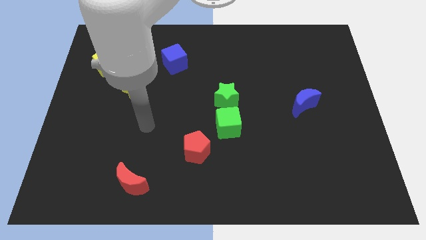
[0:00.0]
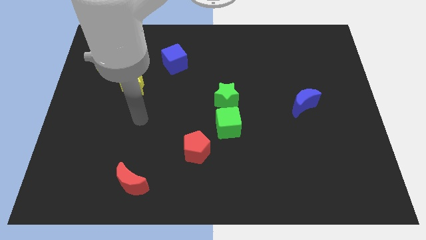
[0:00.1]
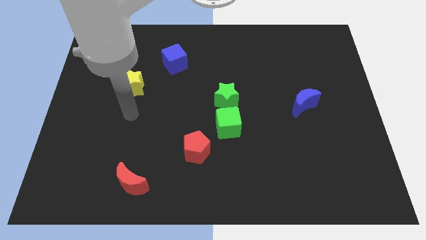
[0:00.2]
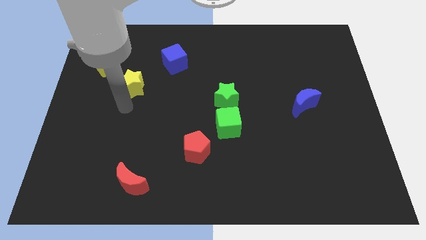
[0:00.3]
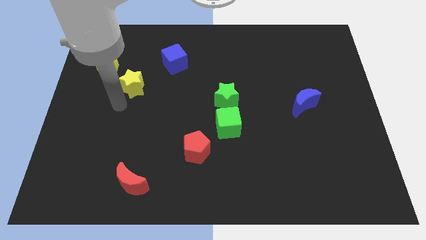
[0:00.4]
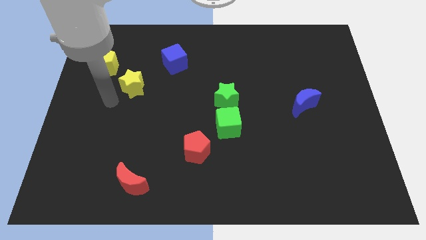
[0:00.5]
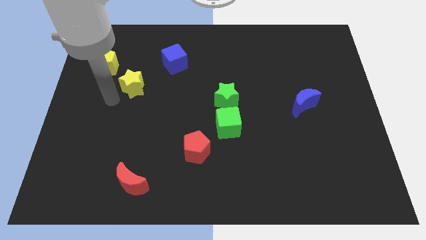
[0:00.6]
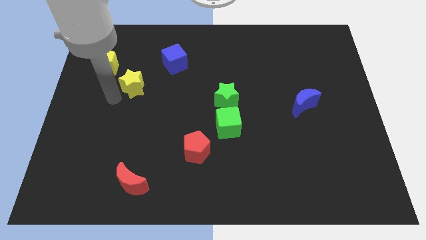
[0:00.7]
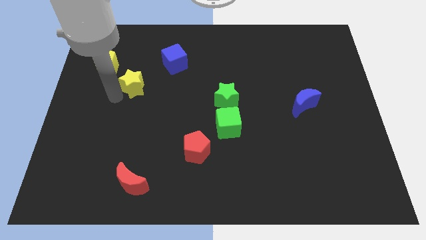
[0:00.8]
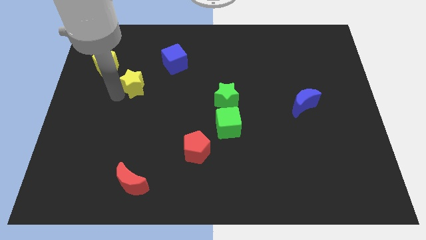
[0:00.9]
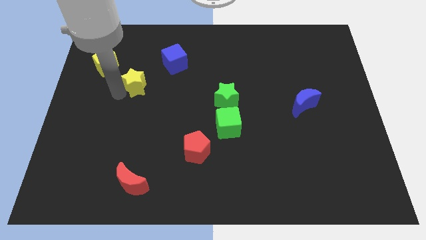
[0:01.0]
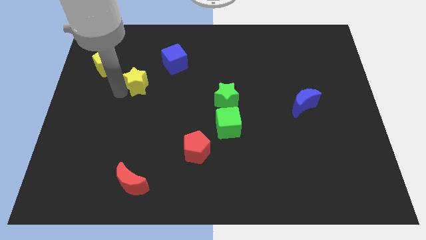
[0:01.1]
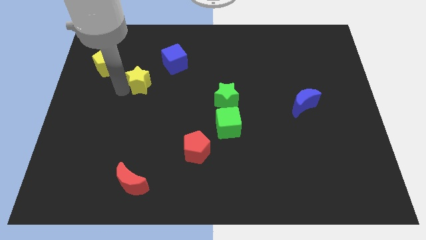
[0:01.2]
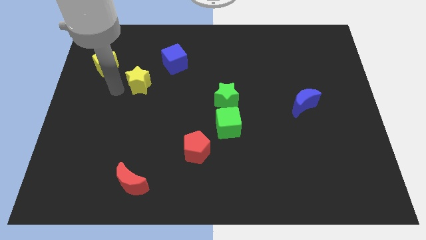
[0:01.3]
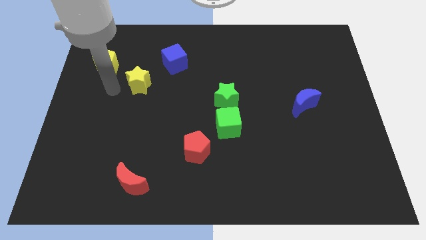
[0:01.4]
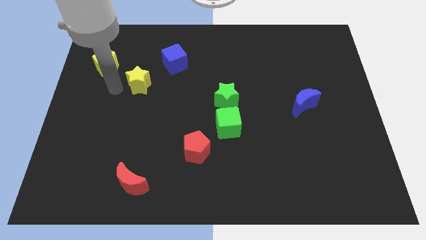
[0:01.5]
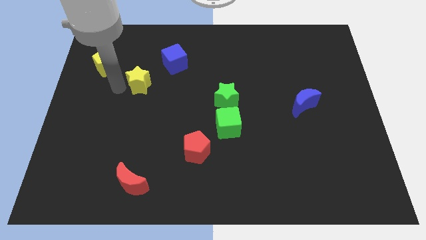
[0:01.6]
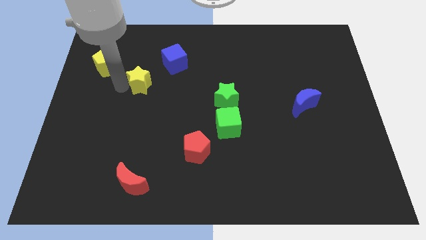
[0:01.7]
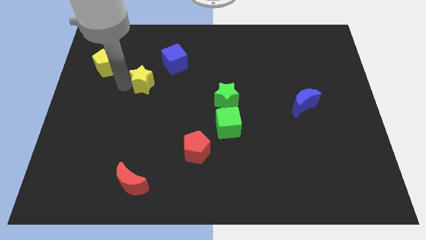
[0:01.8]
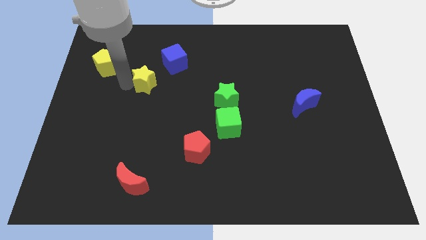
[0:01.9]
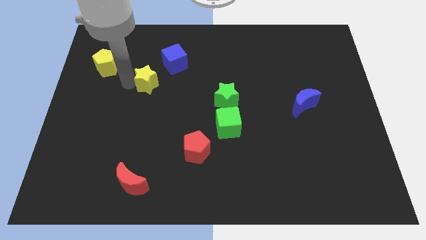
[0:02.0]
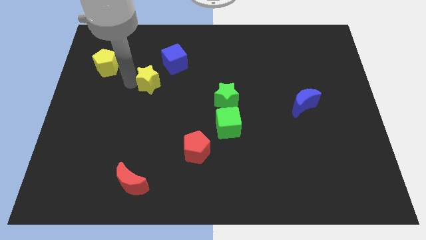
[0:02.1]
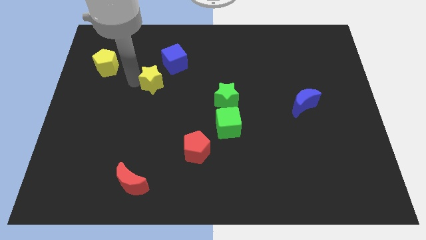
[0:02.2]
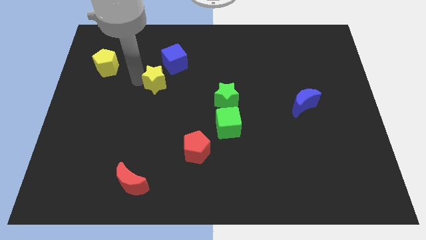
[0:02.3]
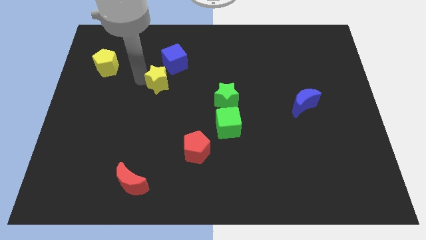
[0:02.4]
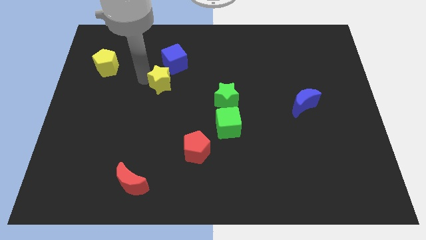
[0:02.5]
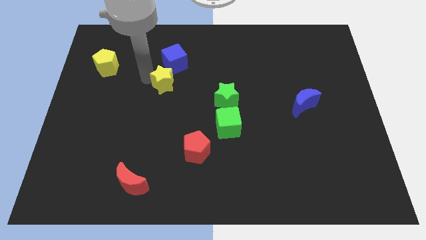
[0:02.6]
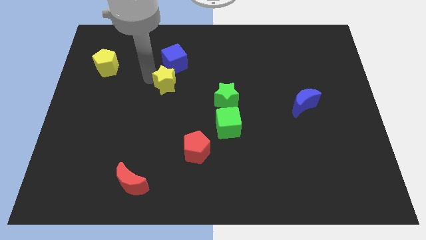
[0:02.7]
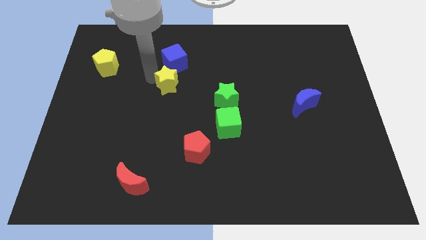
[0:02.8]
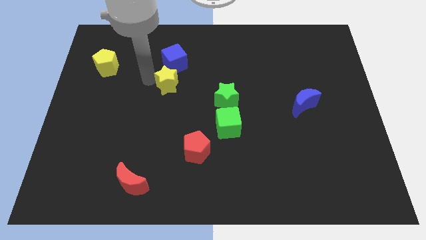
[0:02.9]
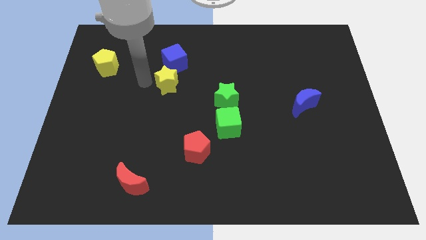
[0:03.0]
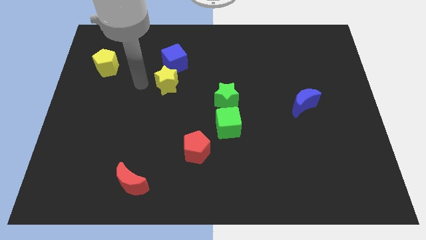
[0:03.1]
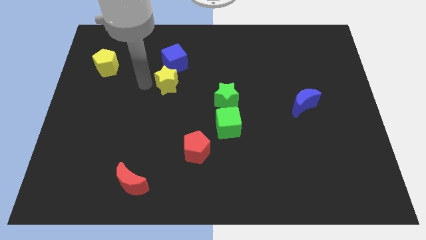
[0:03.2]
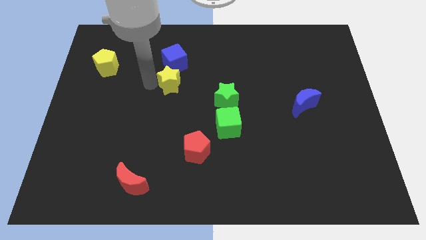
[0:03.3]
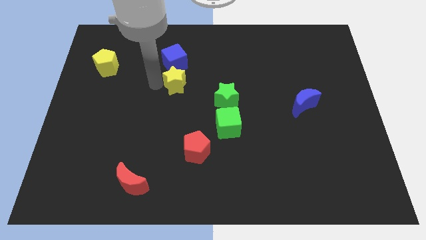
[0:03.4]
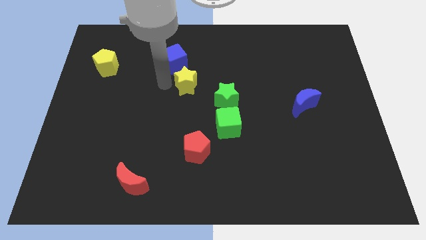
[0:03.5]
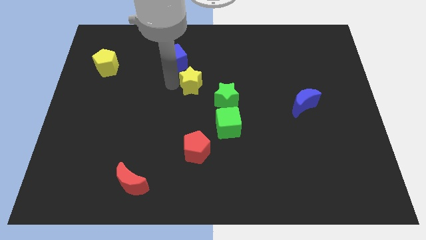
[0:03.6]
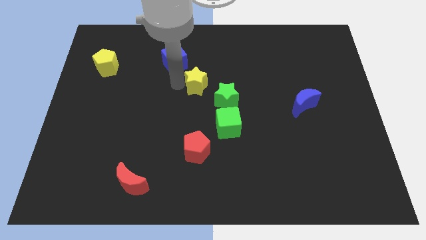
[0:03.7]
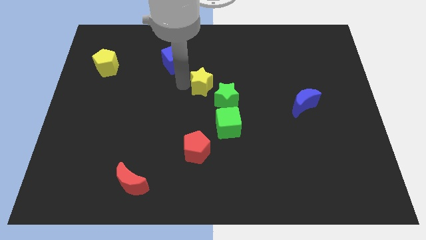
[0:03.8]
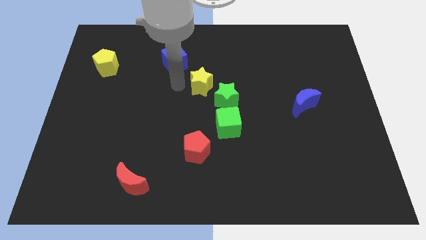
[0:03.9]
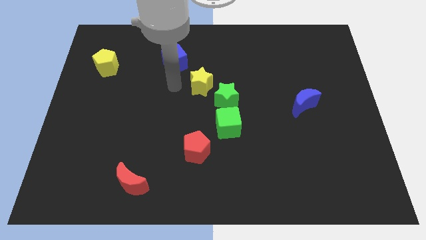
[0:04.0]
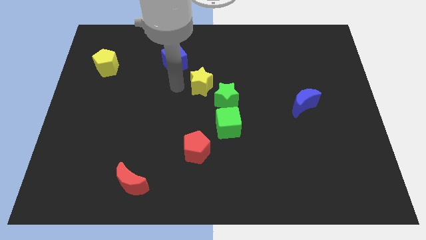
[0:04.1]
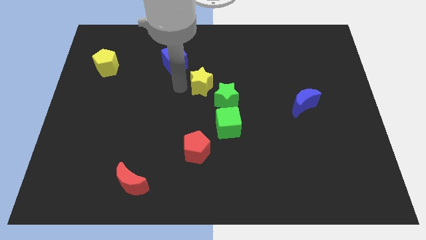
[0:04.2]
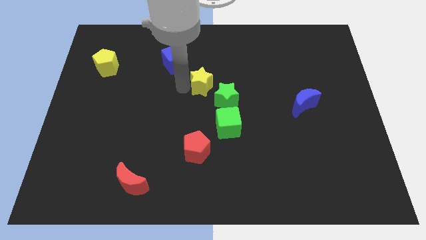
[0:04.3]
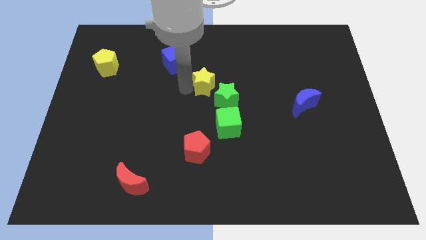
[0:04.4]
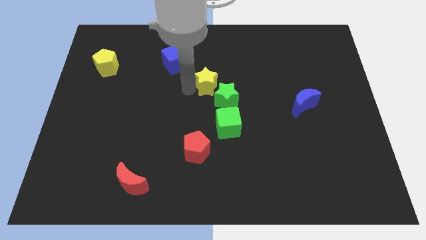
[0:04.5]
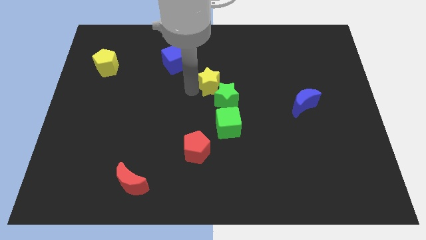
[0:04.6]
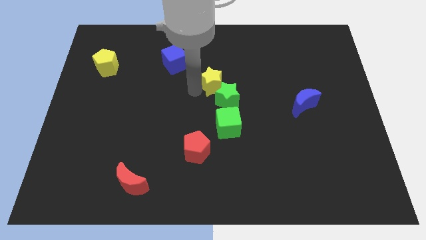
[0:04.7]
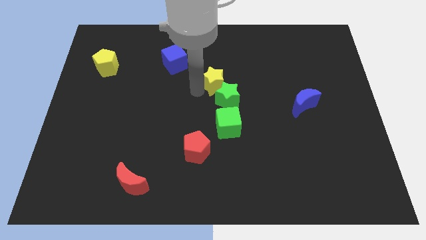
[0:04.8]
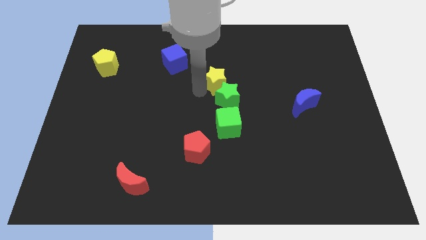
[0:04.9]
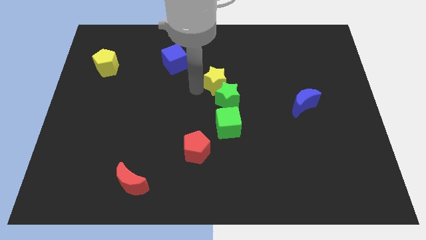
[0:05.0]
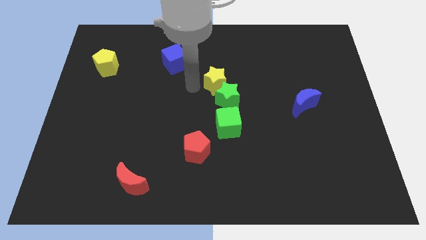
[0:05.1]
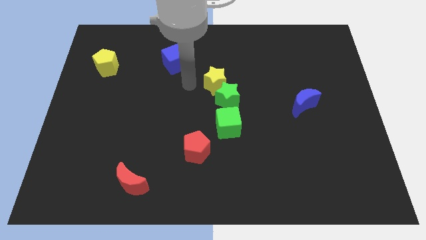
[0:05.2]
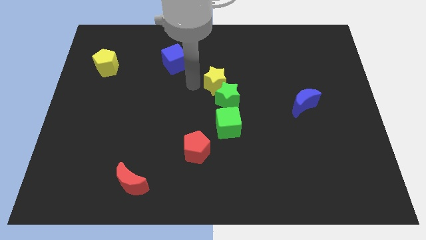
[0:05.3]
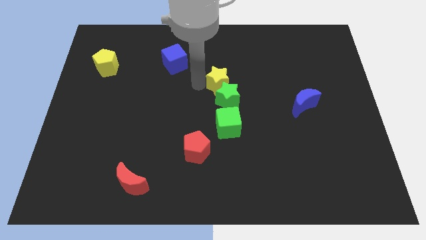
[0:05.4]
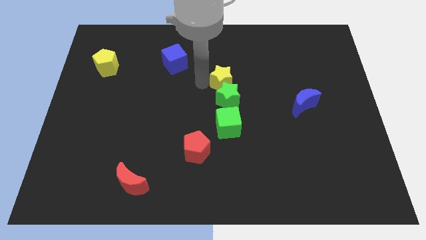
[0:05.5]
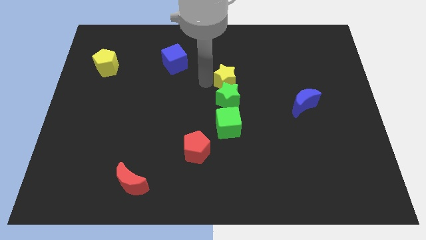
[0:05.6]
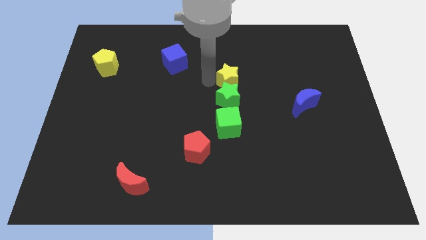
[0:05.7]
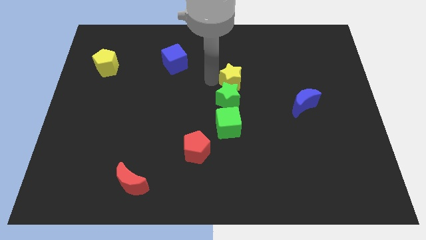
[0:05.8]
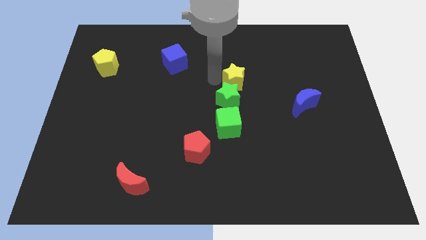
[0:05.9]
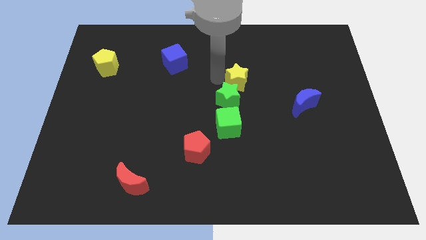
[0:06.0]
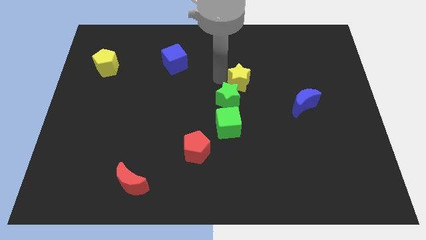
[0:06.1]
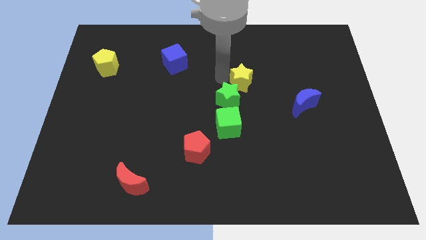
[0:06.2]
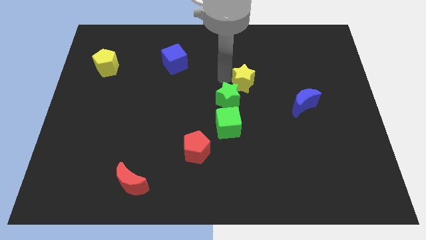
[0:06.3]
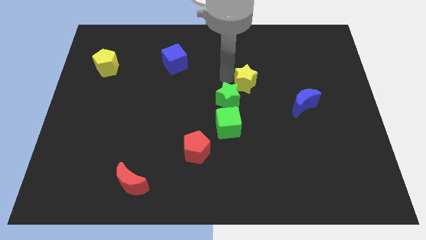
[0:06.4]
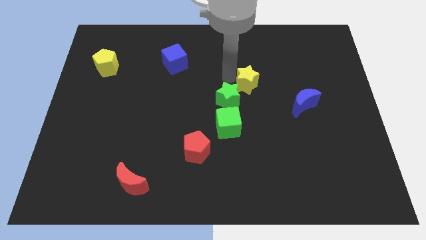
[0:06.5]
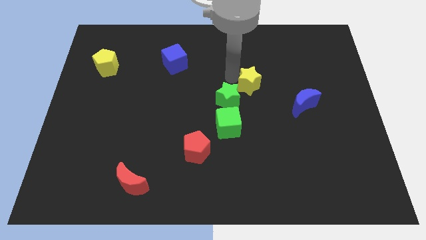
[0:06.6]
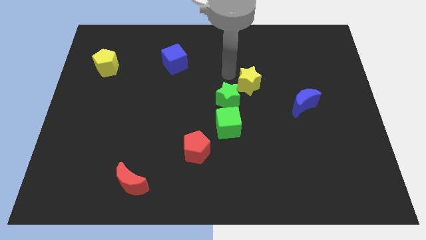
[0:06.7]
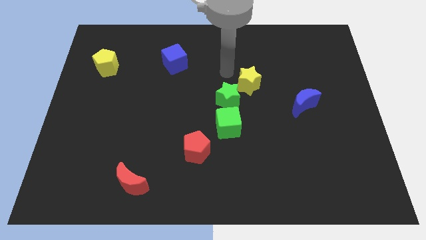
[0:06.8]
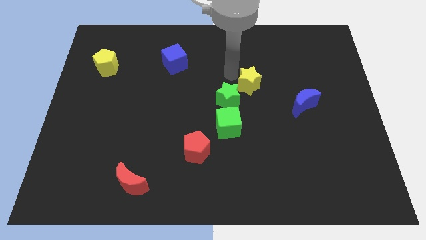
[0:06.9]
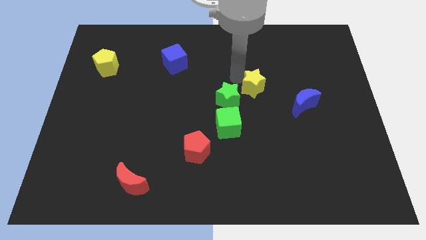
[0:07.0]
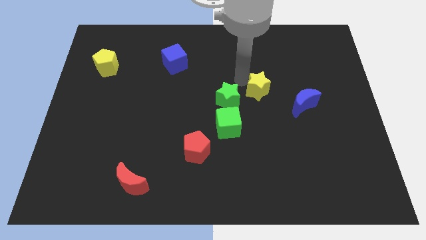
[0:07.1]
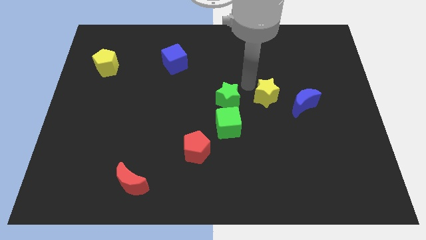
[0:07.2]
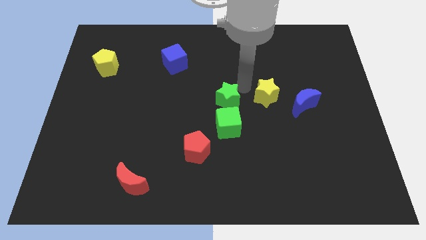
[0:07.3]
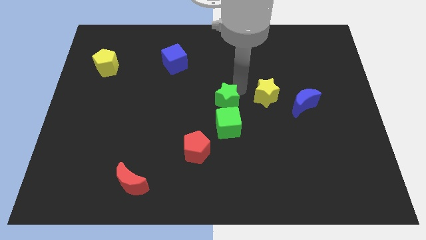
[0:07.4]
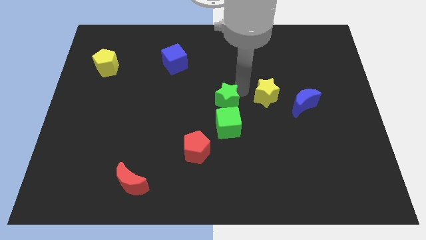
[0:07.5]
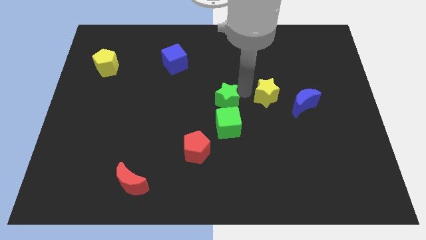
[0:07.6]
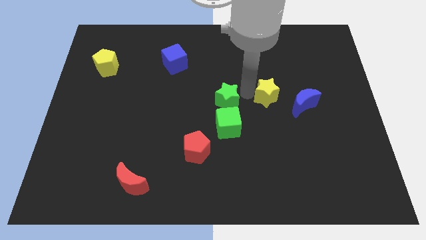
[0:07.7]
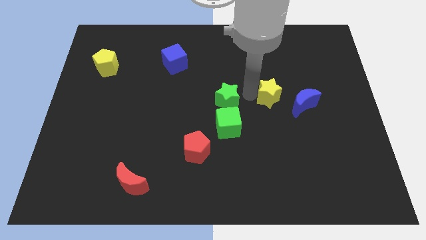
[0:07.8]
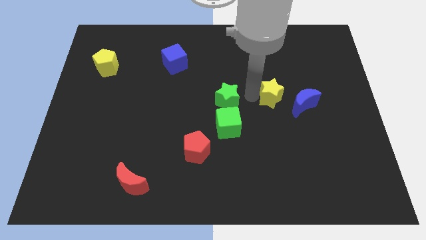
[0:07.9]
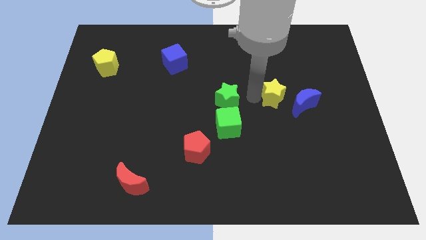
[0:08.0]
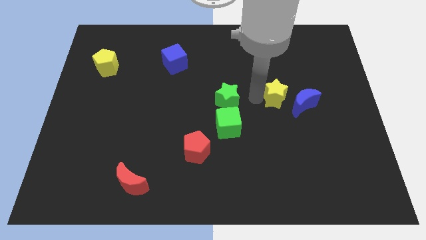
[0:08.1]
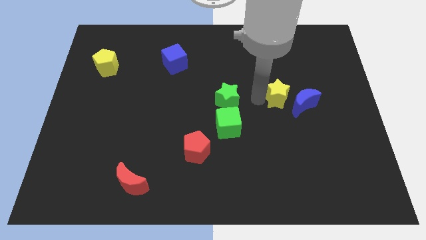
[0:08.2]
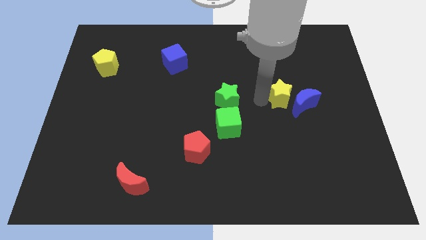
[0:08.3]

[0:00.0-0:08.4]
push the yellow star to the blue moon
